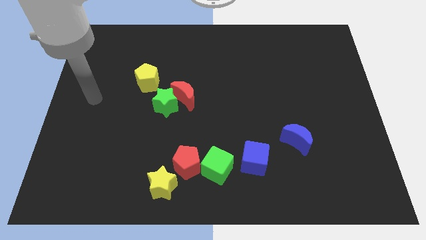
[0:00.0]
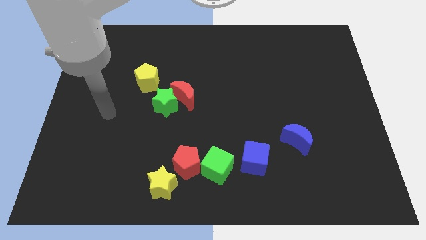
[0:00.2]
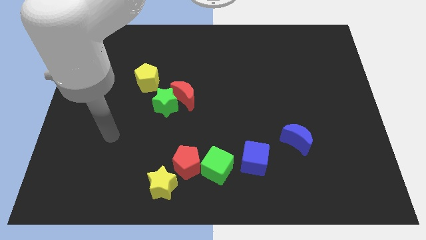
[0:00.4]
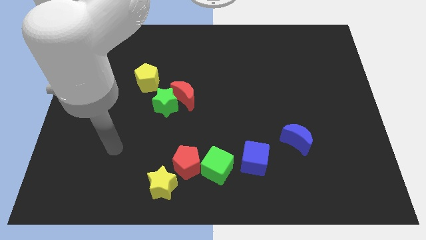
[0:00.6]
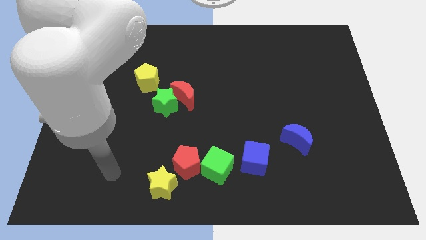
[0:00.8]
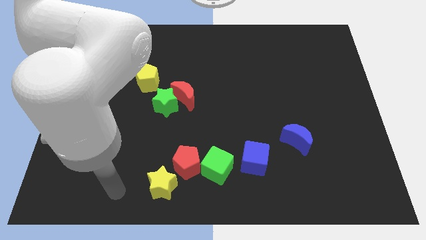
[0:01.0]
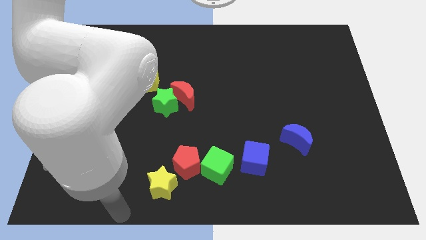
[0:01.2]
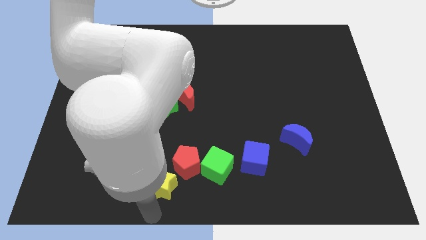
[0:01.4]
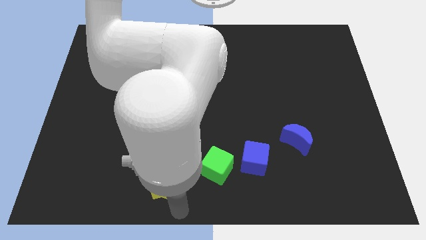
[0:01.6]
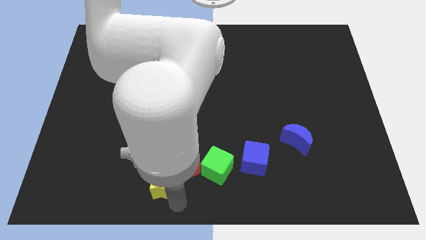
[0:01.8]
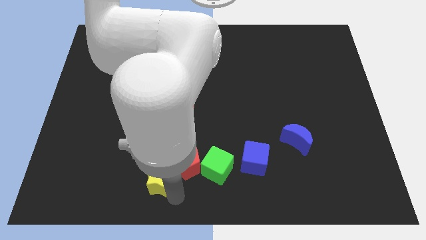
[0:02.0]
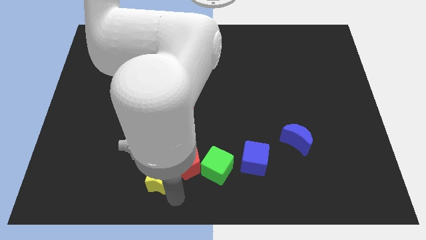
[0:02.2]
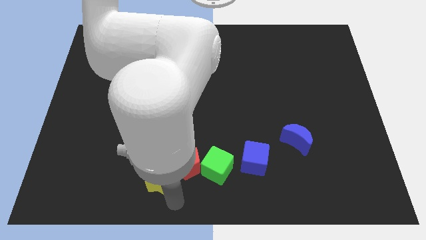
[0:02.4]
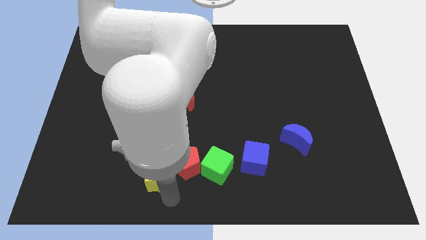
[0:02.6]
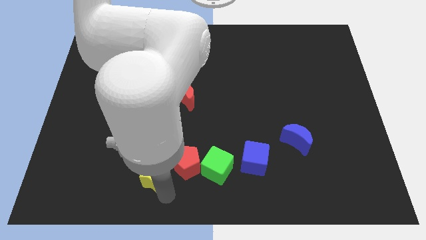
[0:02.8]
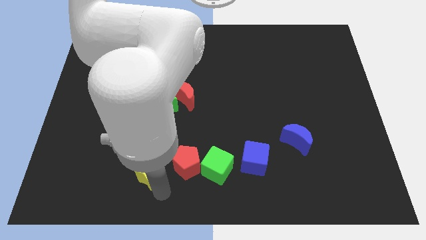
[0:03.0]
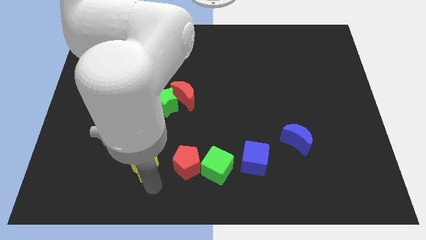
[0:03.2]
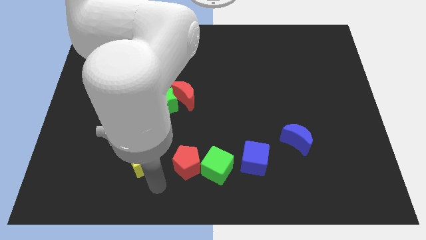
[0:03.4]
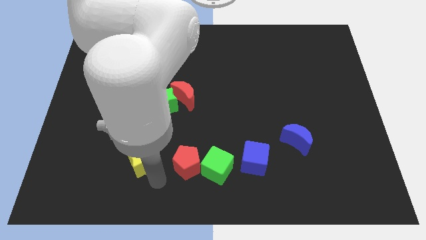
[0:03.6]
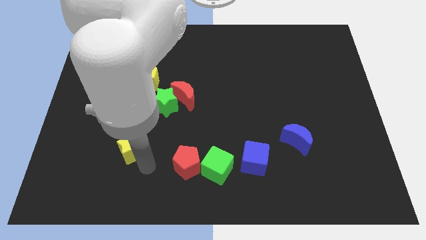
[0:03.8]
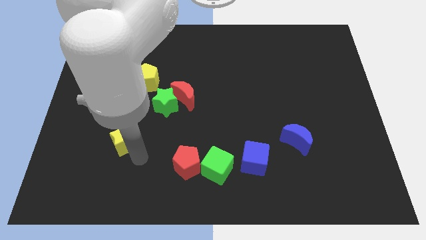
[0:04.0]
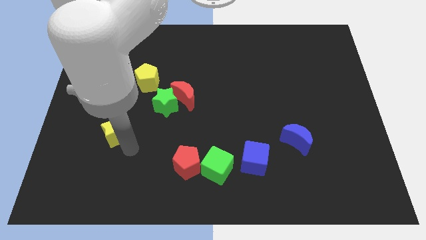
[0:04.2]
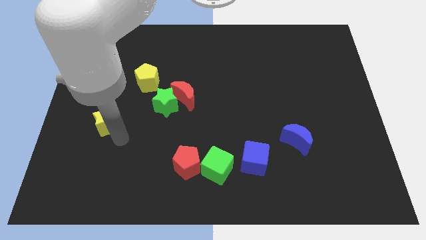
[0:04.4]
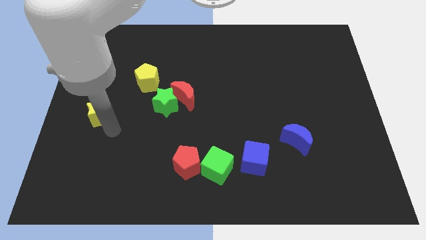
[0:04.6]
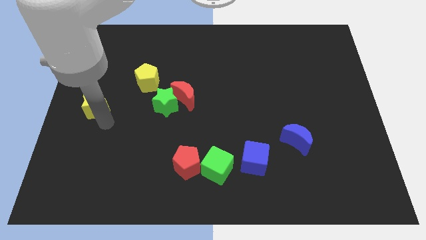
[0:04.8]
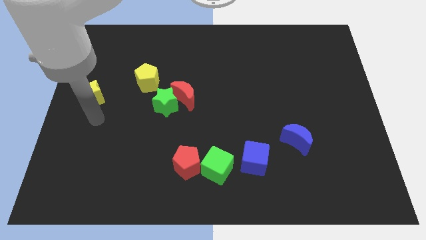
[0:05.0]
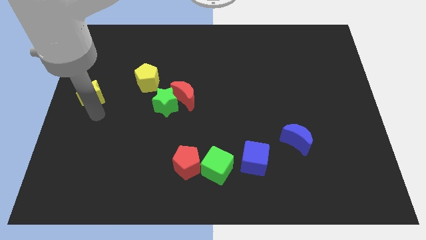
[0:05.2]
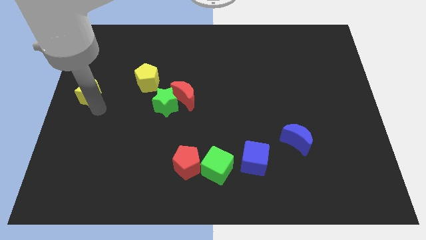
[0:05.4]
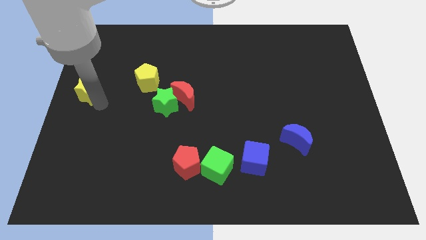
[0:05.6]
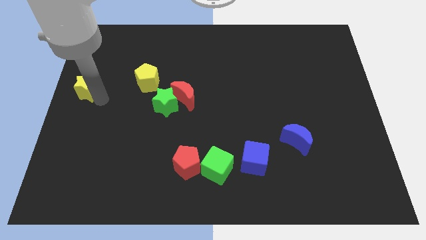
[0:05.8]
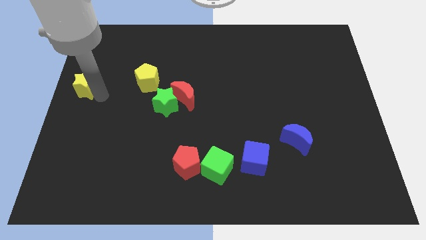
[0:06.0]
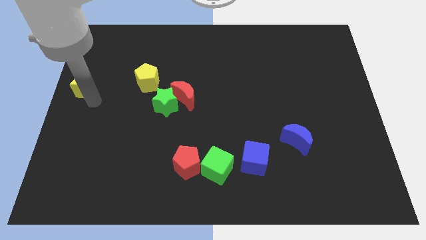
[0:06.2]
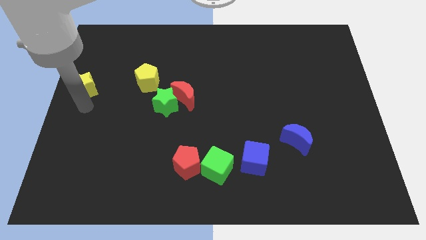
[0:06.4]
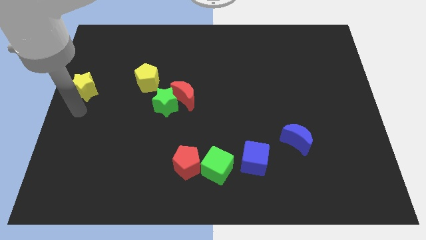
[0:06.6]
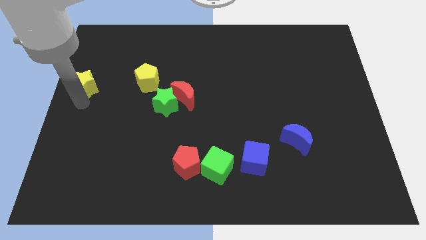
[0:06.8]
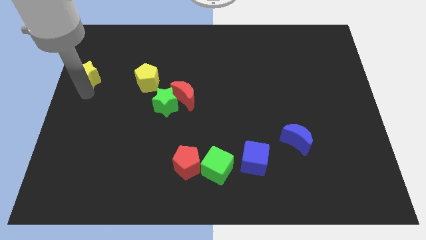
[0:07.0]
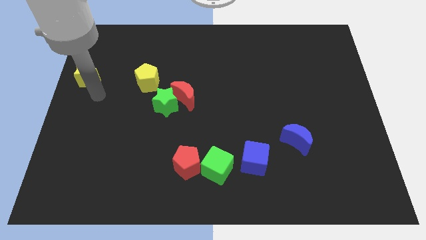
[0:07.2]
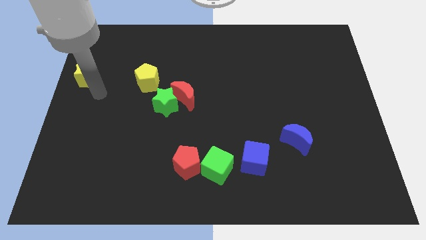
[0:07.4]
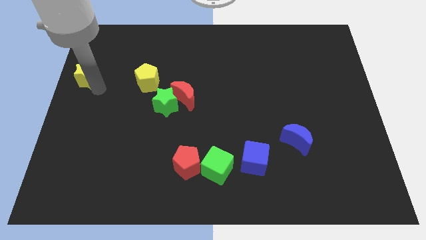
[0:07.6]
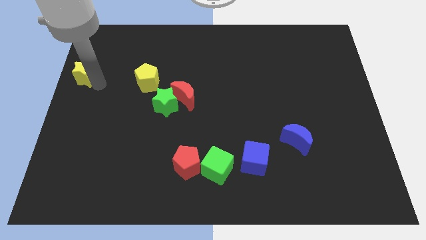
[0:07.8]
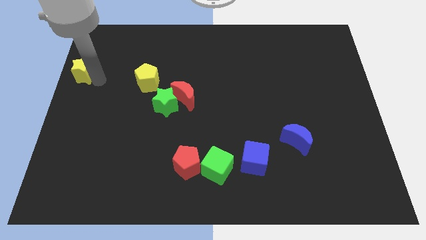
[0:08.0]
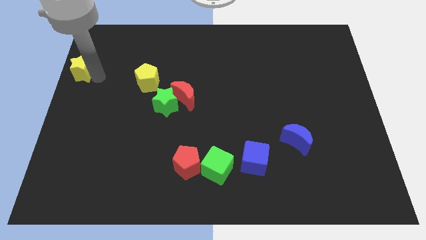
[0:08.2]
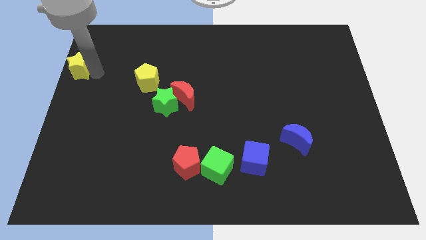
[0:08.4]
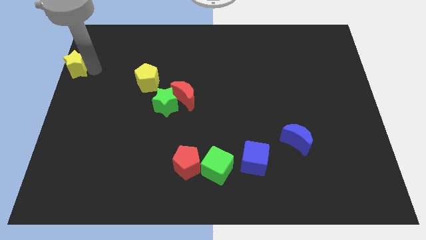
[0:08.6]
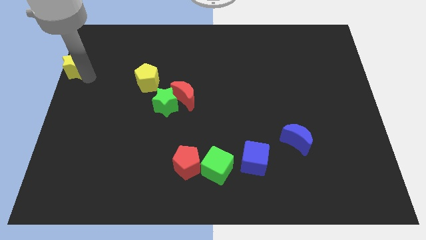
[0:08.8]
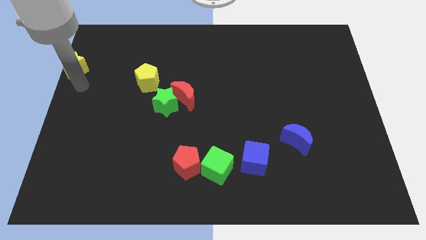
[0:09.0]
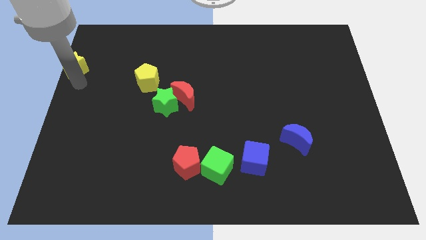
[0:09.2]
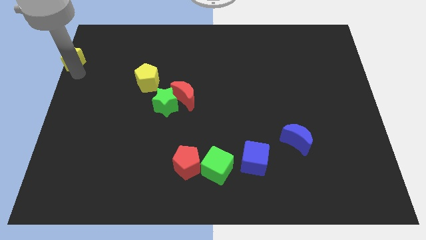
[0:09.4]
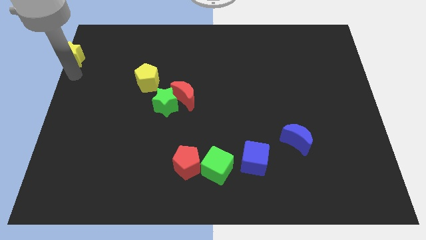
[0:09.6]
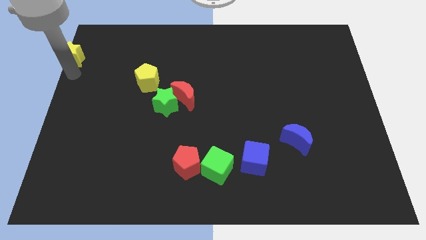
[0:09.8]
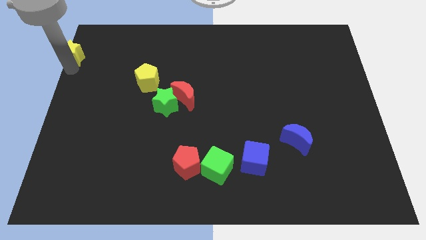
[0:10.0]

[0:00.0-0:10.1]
push the yellow star to the upper left corner

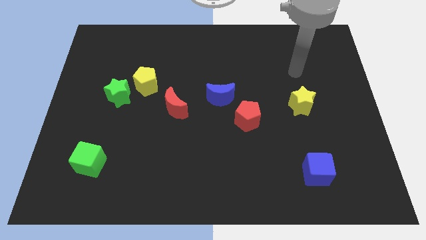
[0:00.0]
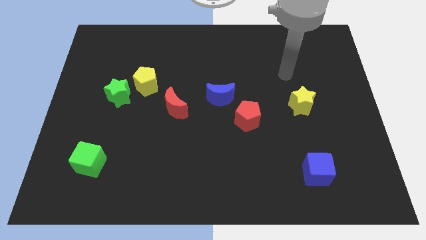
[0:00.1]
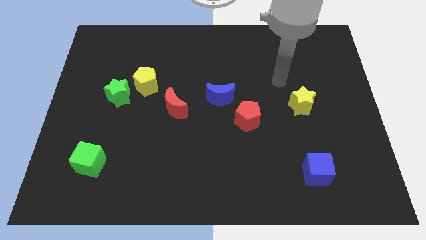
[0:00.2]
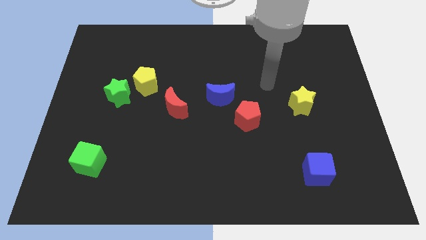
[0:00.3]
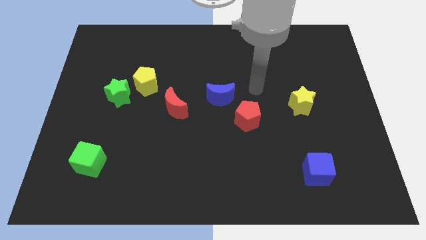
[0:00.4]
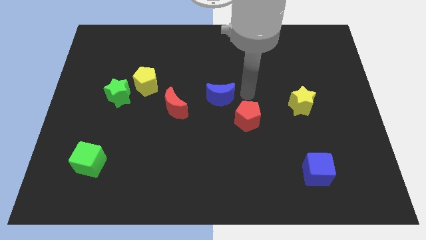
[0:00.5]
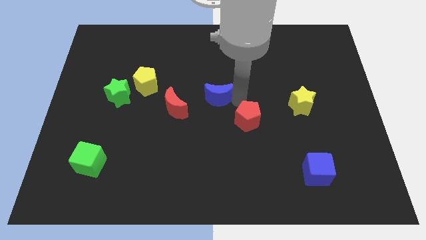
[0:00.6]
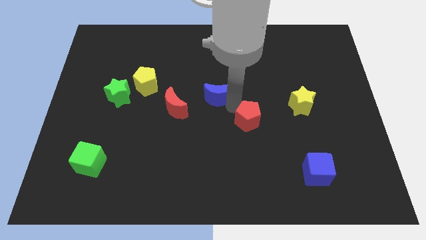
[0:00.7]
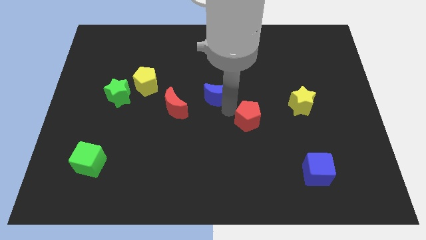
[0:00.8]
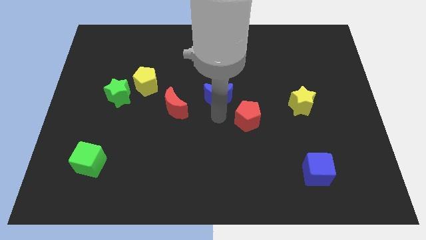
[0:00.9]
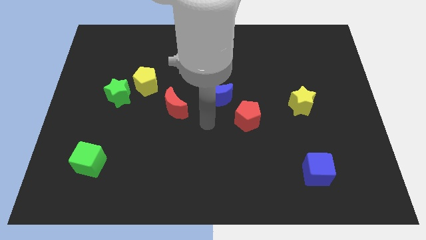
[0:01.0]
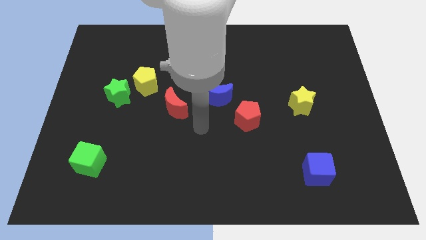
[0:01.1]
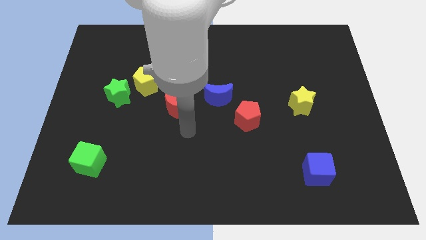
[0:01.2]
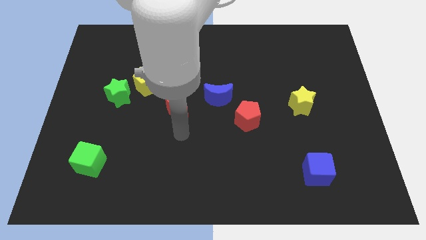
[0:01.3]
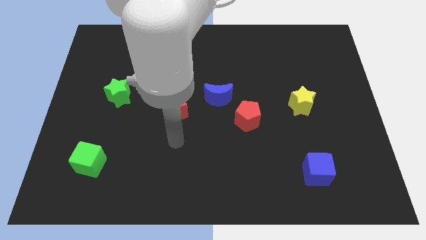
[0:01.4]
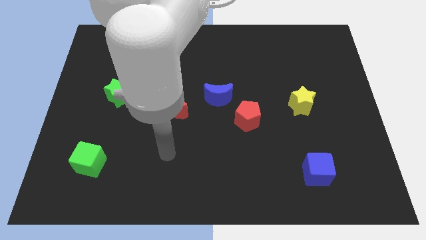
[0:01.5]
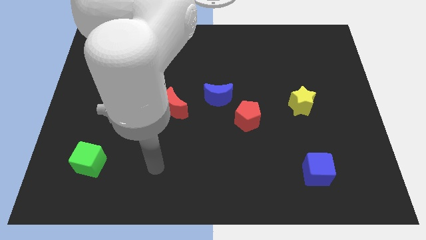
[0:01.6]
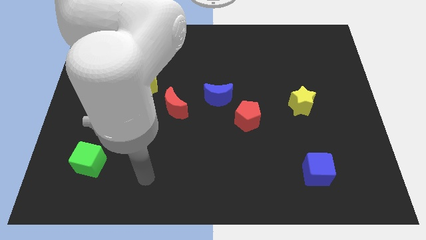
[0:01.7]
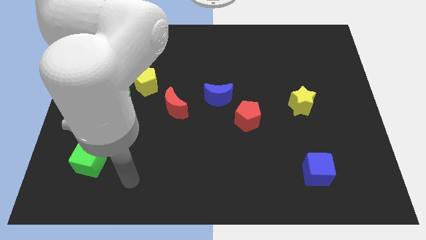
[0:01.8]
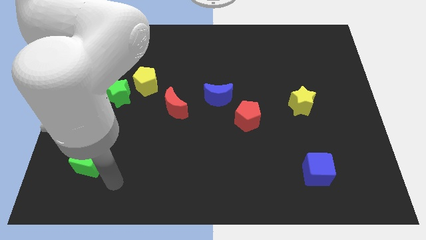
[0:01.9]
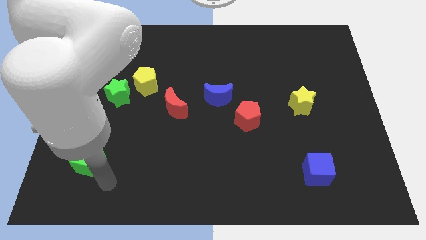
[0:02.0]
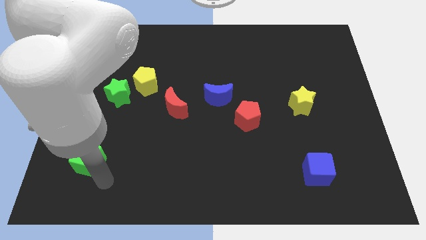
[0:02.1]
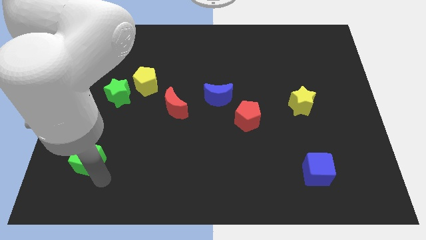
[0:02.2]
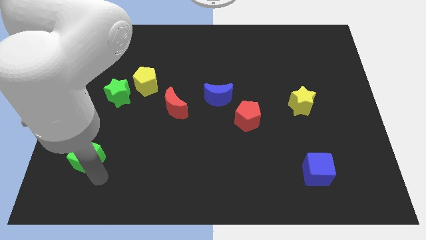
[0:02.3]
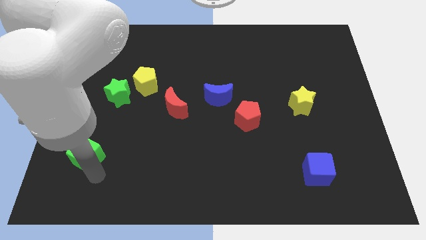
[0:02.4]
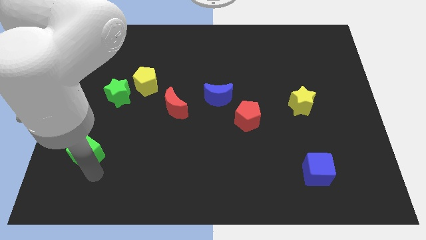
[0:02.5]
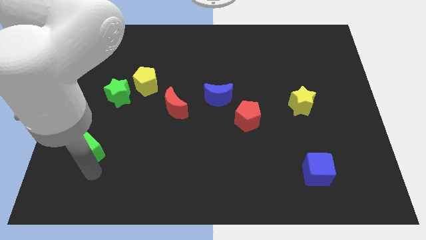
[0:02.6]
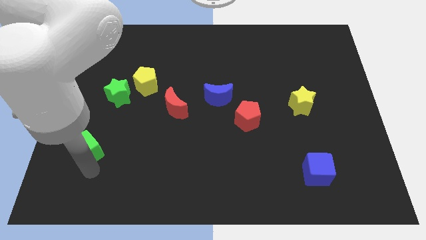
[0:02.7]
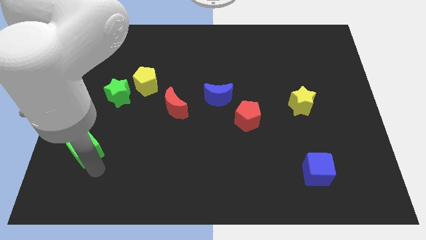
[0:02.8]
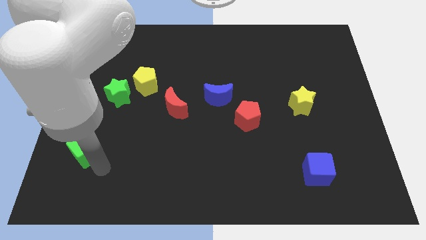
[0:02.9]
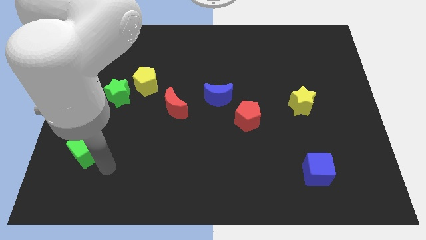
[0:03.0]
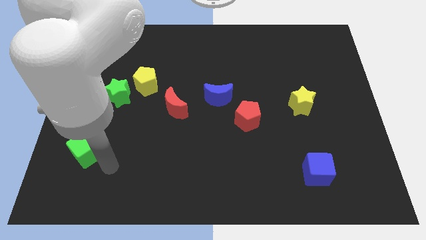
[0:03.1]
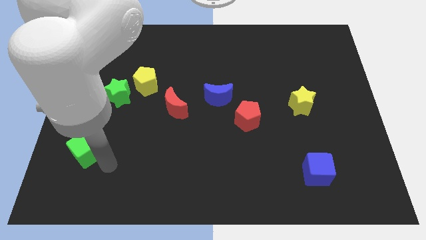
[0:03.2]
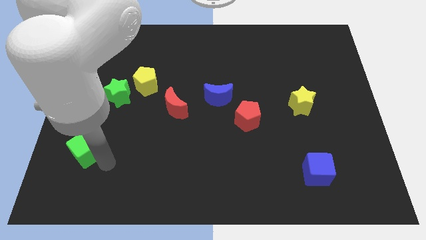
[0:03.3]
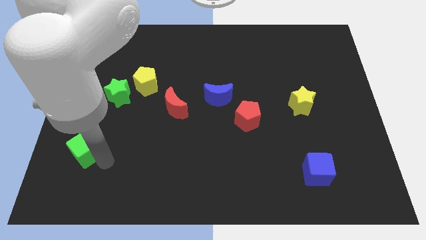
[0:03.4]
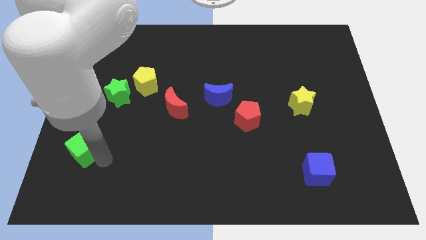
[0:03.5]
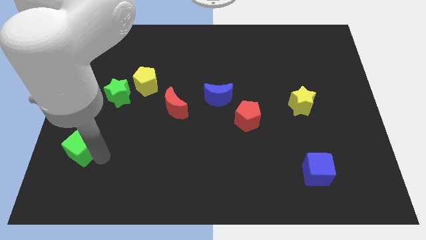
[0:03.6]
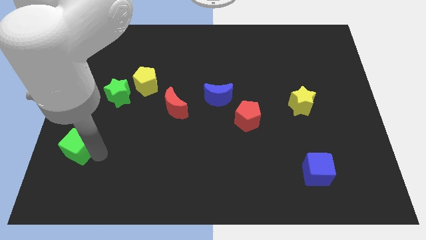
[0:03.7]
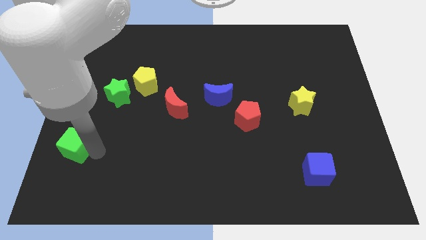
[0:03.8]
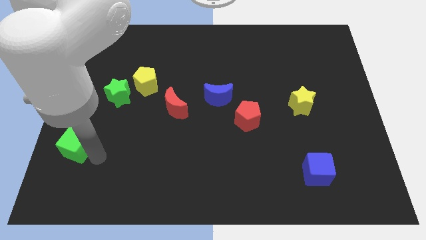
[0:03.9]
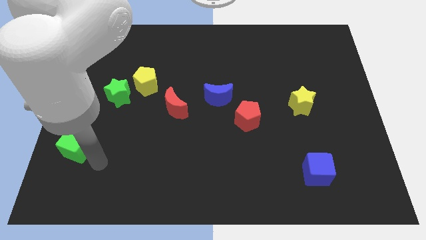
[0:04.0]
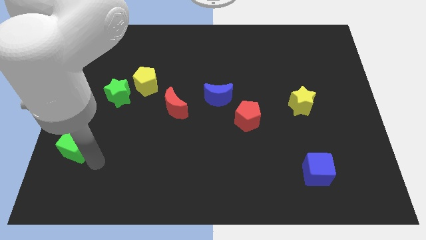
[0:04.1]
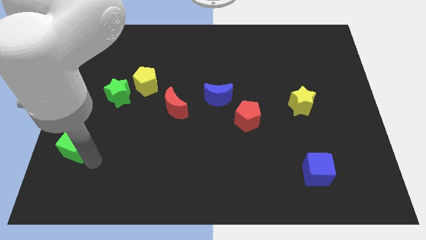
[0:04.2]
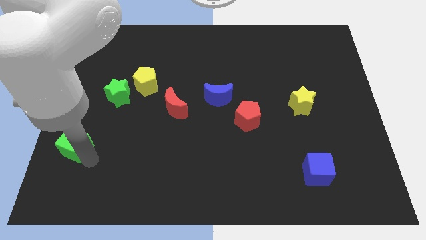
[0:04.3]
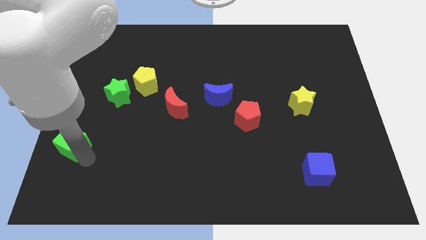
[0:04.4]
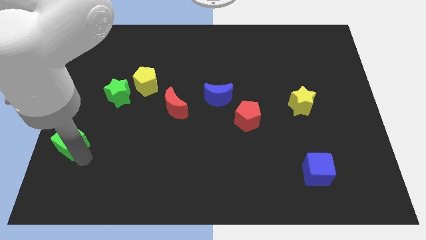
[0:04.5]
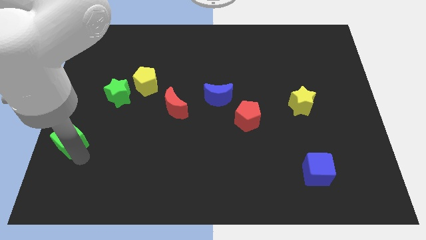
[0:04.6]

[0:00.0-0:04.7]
slide the green cube to the left side
